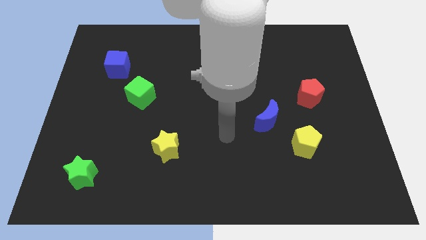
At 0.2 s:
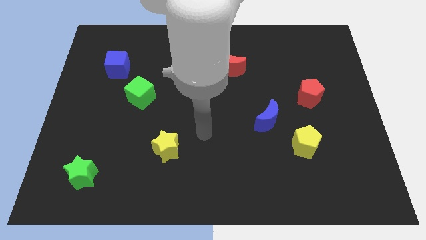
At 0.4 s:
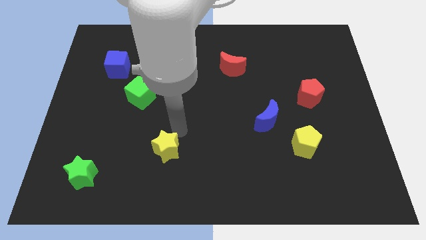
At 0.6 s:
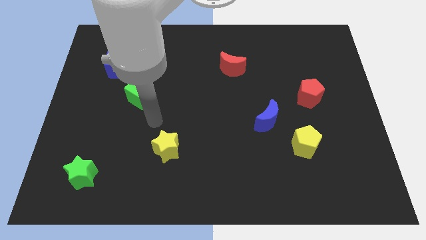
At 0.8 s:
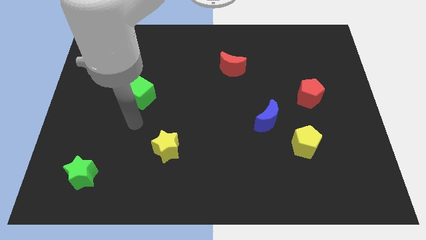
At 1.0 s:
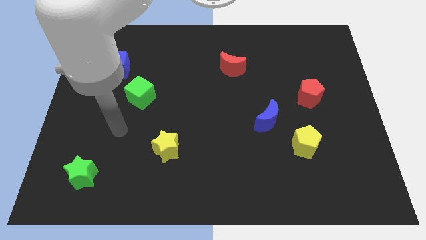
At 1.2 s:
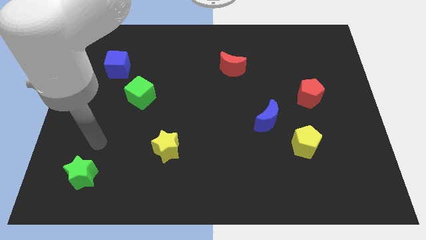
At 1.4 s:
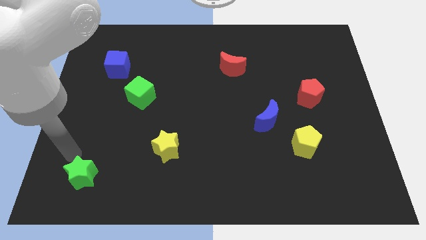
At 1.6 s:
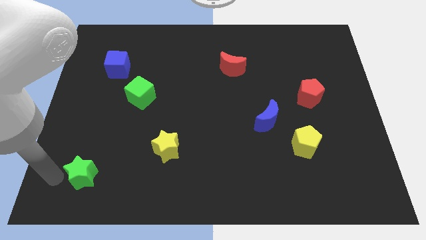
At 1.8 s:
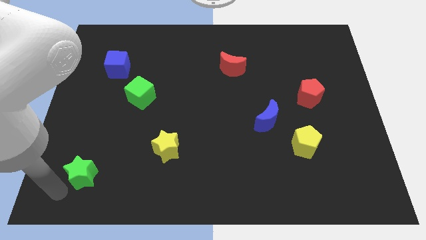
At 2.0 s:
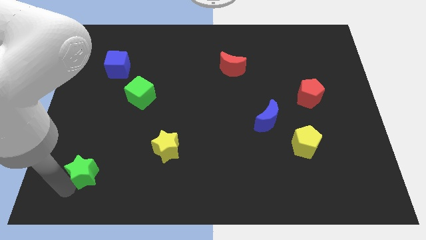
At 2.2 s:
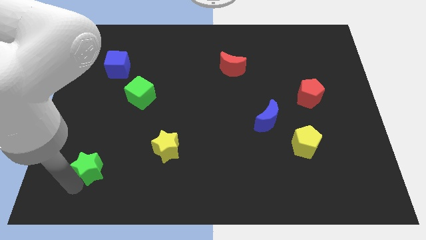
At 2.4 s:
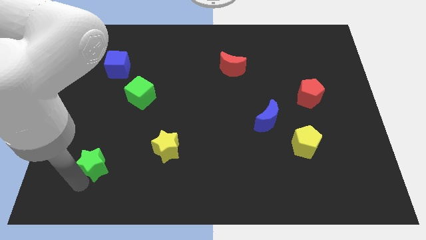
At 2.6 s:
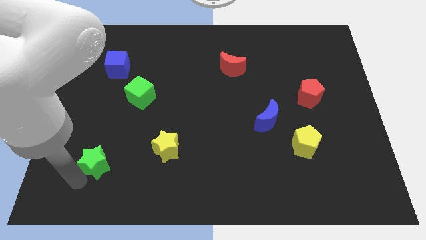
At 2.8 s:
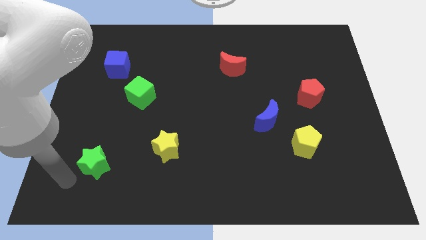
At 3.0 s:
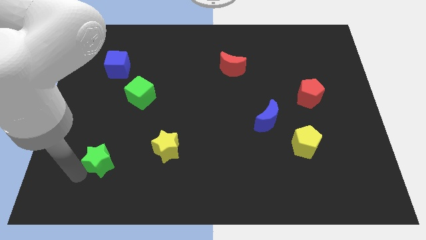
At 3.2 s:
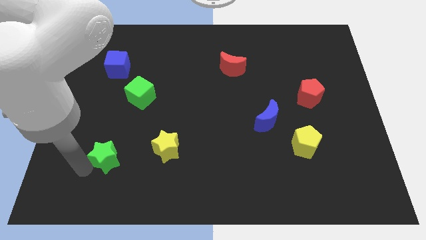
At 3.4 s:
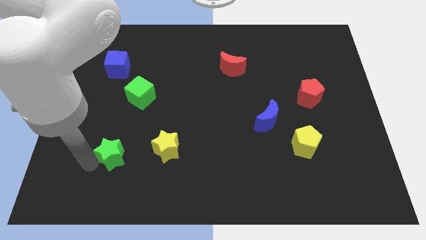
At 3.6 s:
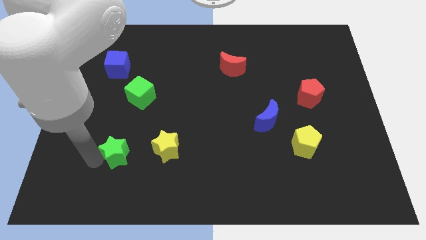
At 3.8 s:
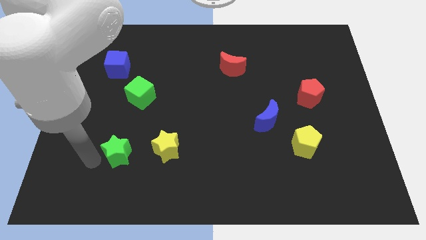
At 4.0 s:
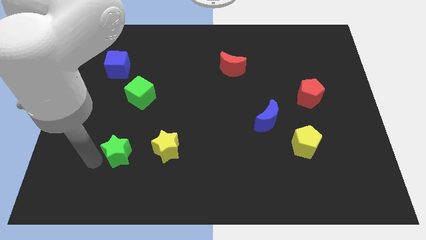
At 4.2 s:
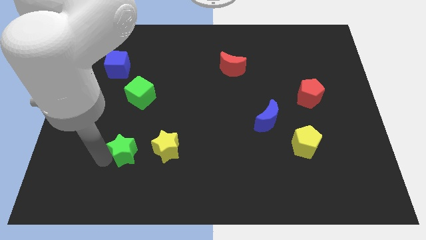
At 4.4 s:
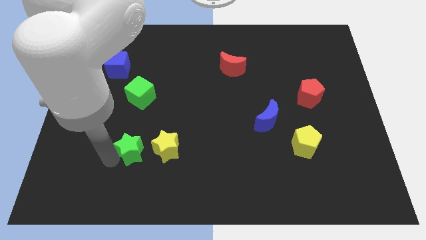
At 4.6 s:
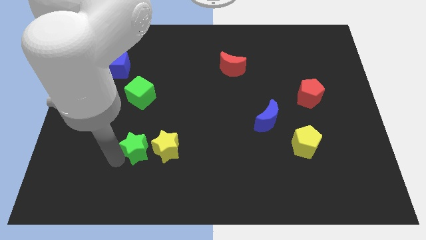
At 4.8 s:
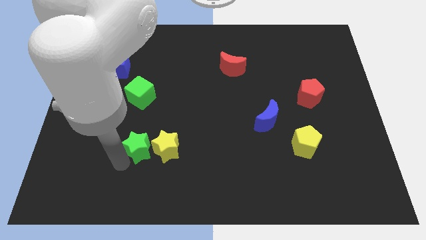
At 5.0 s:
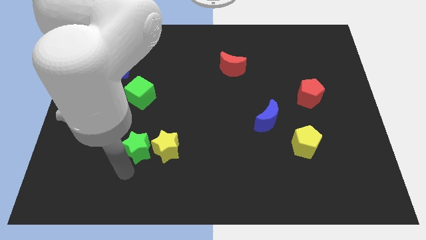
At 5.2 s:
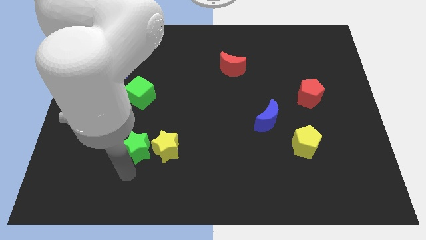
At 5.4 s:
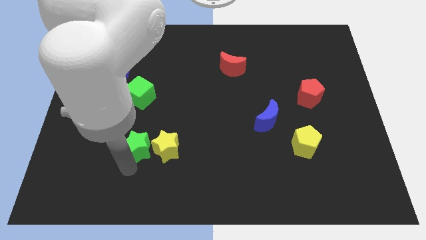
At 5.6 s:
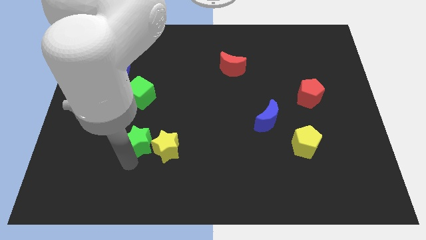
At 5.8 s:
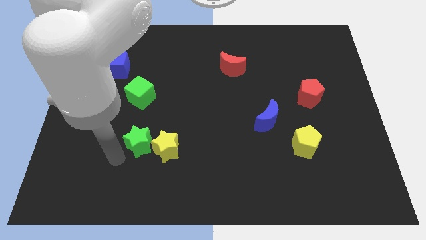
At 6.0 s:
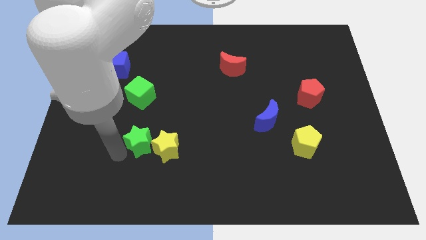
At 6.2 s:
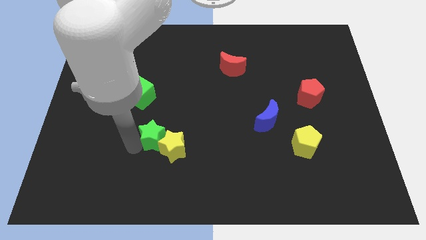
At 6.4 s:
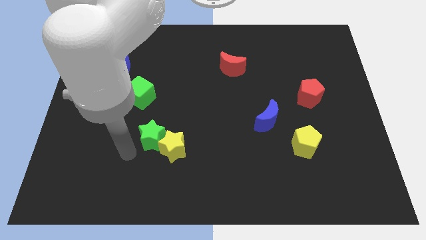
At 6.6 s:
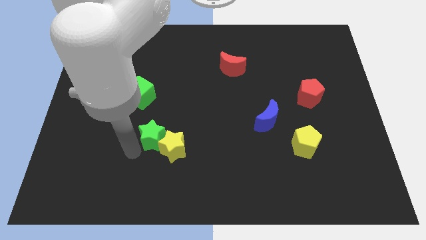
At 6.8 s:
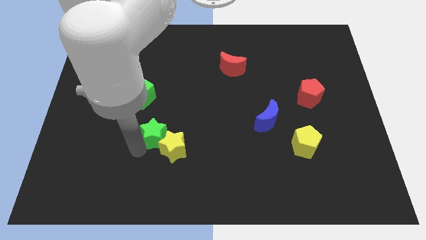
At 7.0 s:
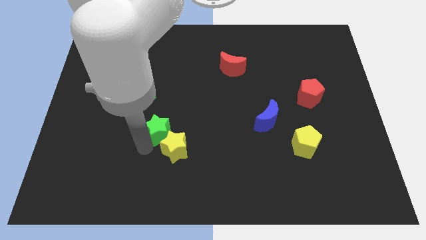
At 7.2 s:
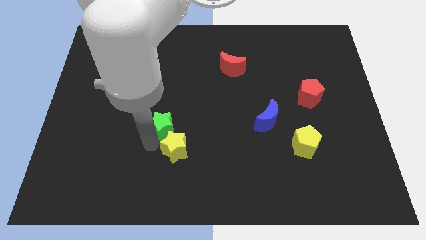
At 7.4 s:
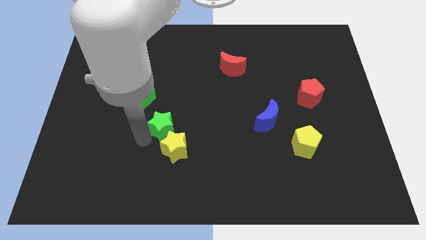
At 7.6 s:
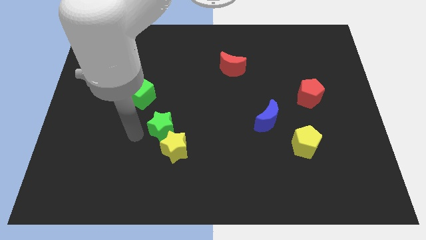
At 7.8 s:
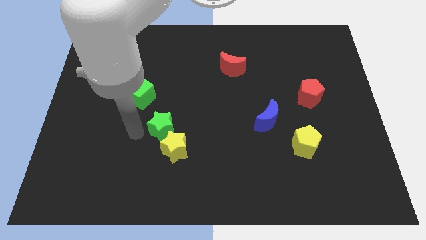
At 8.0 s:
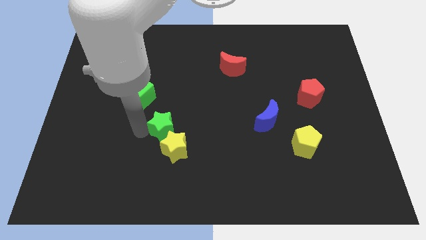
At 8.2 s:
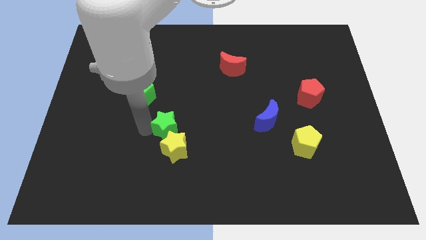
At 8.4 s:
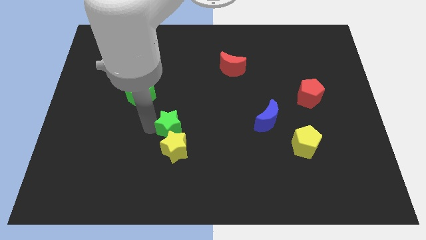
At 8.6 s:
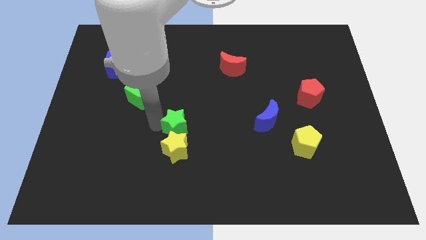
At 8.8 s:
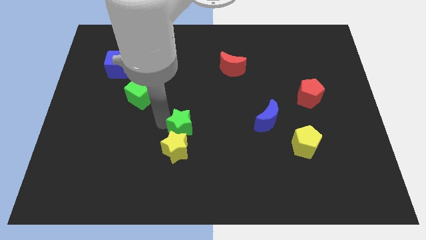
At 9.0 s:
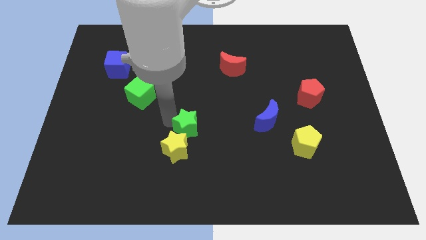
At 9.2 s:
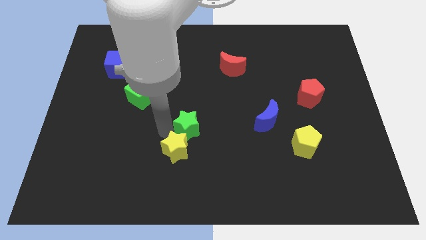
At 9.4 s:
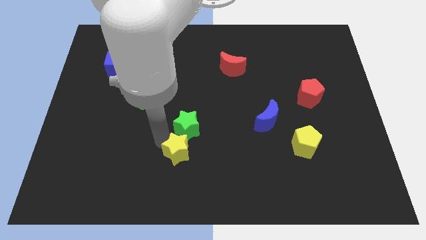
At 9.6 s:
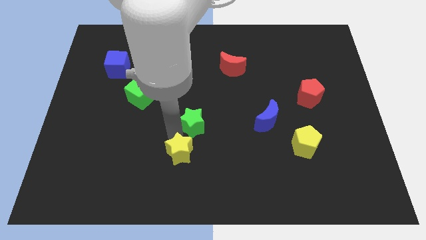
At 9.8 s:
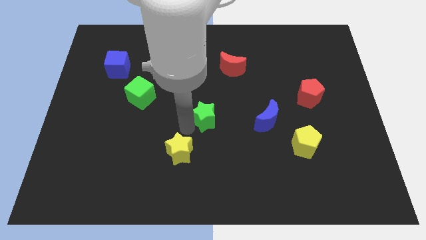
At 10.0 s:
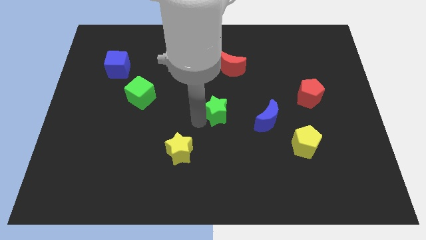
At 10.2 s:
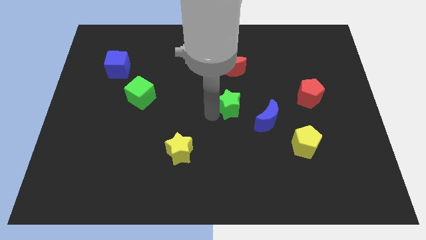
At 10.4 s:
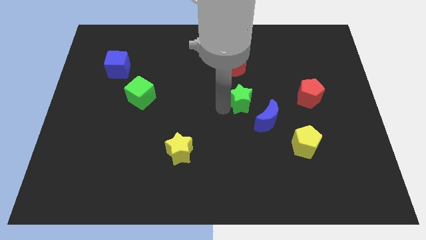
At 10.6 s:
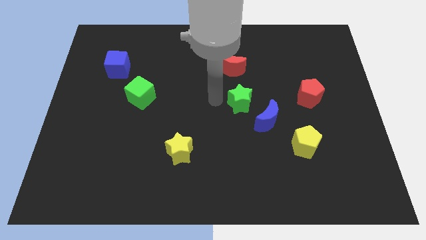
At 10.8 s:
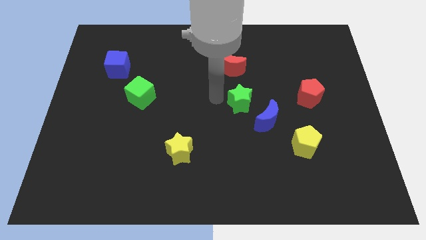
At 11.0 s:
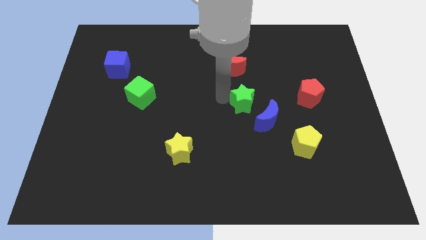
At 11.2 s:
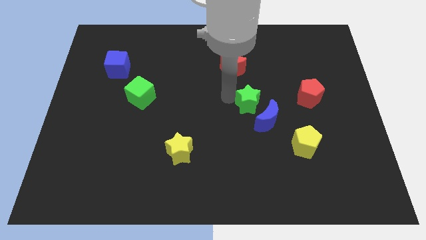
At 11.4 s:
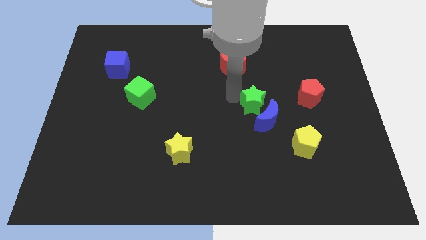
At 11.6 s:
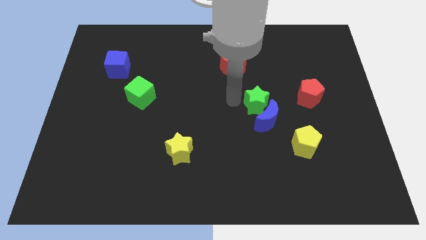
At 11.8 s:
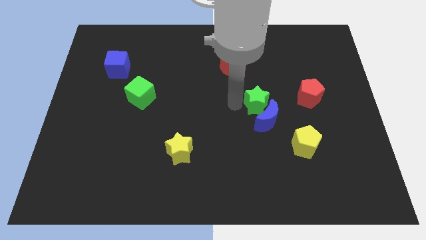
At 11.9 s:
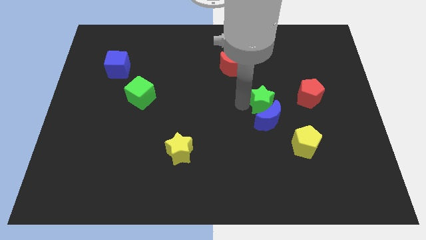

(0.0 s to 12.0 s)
put the green star to the top right side of the blue moon

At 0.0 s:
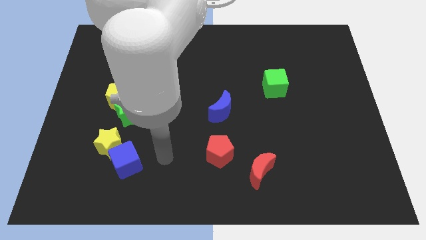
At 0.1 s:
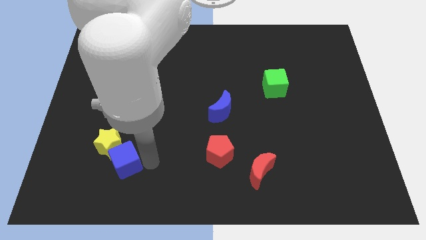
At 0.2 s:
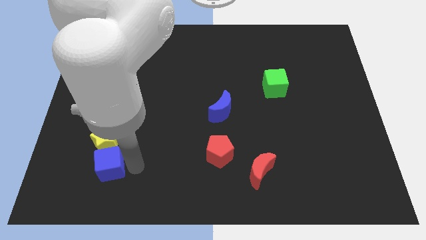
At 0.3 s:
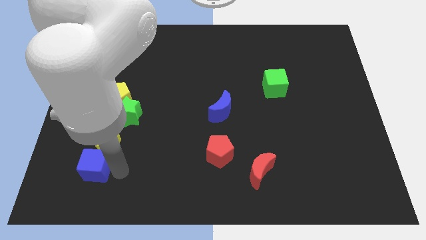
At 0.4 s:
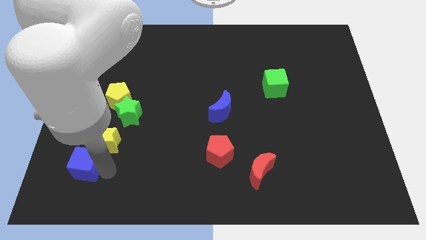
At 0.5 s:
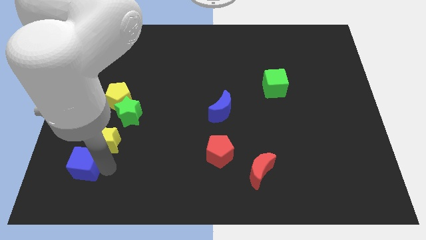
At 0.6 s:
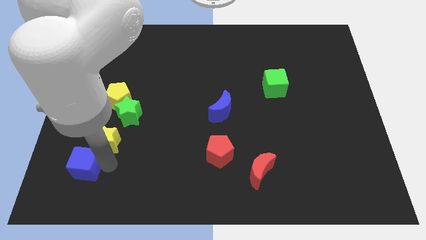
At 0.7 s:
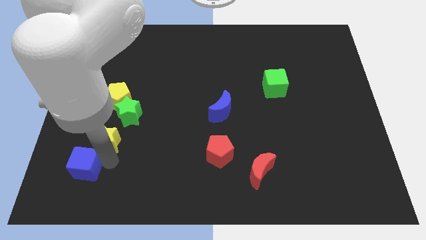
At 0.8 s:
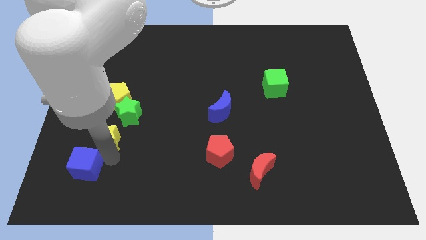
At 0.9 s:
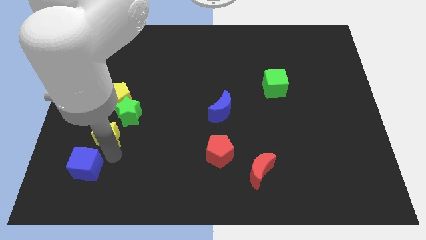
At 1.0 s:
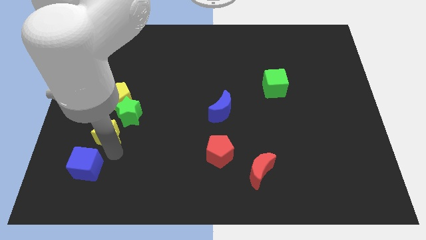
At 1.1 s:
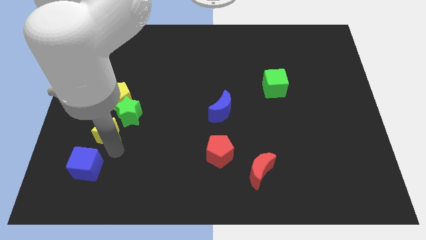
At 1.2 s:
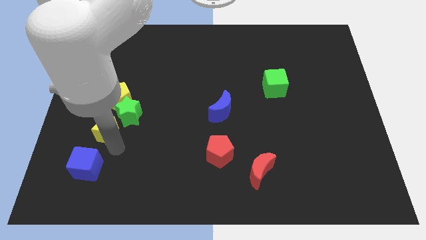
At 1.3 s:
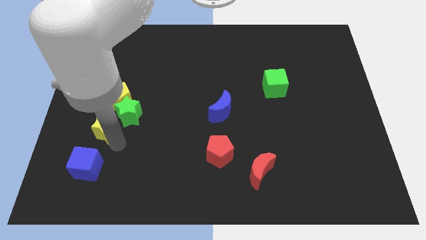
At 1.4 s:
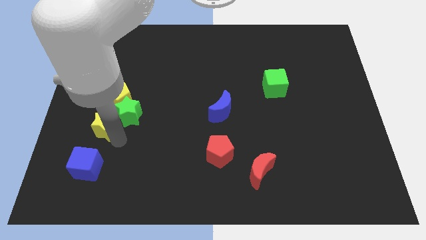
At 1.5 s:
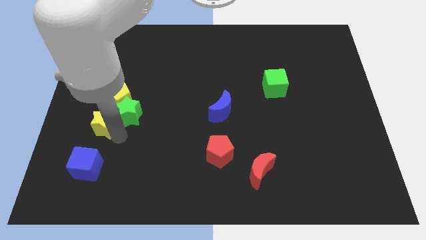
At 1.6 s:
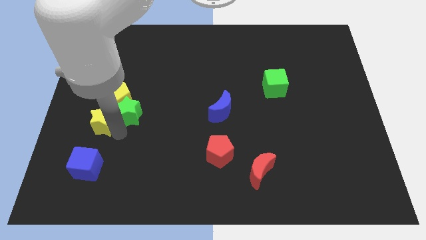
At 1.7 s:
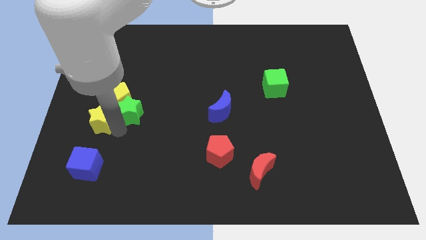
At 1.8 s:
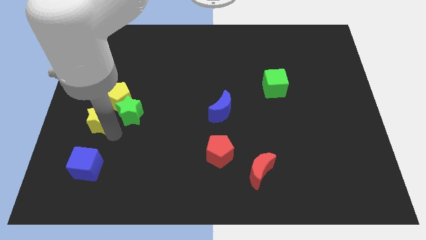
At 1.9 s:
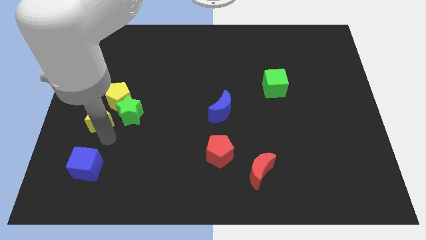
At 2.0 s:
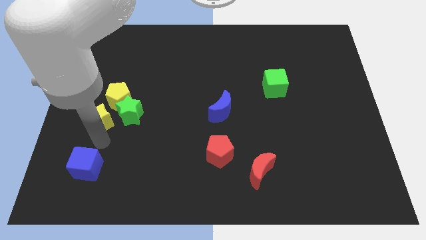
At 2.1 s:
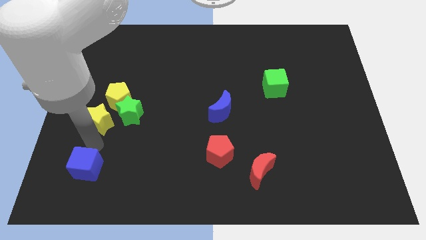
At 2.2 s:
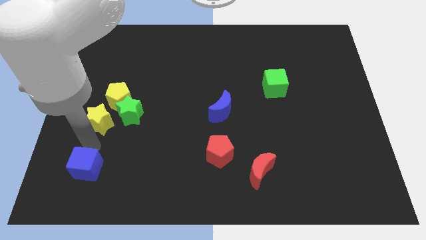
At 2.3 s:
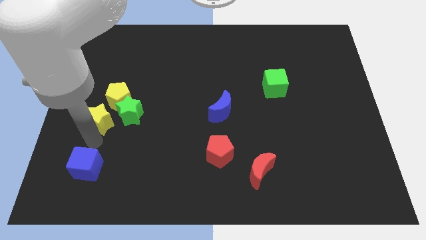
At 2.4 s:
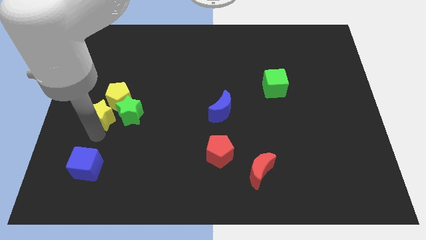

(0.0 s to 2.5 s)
move the yellow star to the top left of the green star
